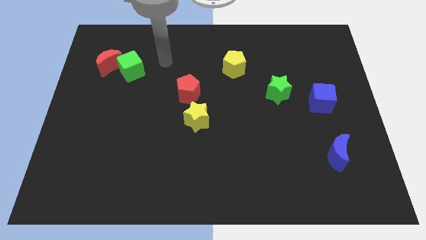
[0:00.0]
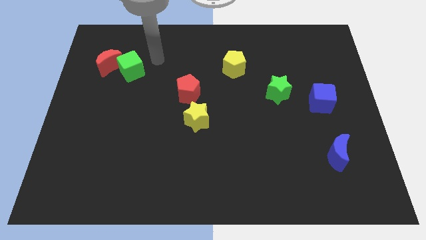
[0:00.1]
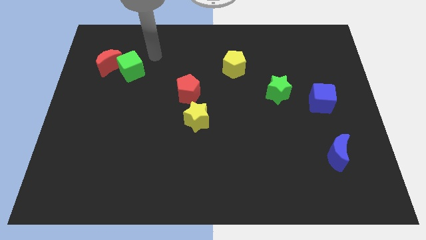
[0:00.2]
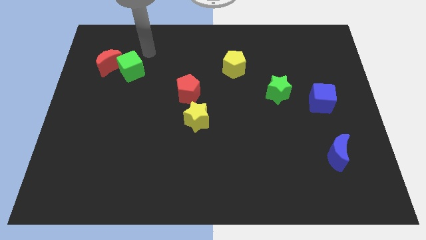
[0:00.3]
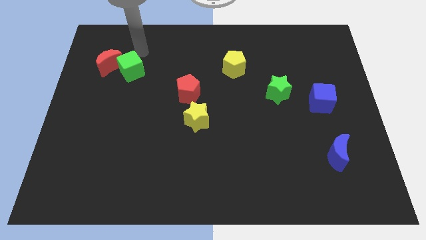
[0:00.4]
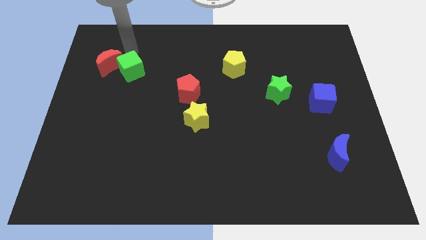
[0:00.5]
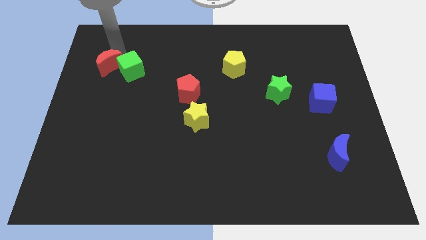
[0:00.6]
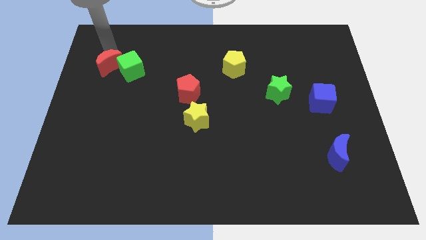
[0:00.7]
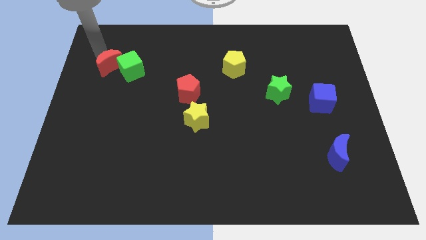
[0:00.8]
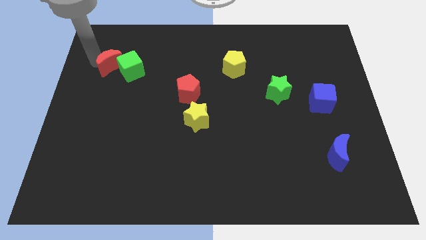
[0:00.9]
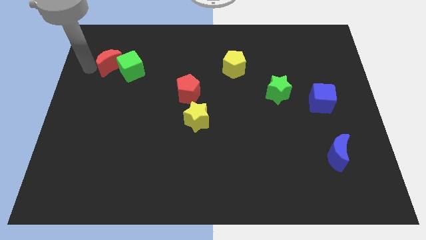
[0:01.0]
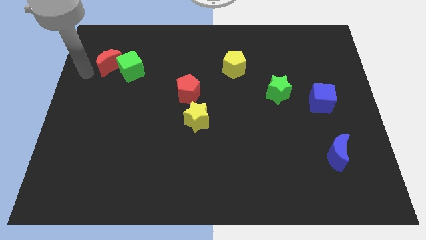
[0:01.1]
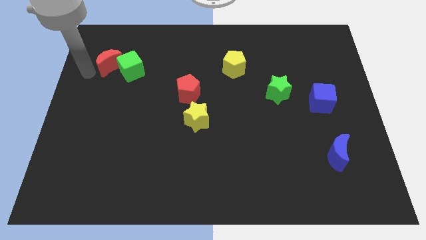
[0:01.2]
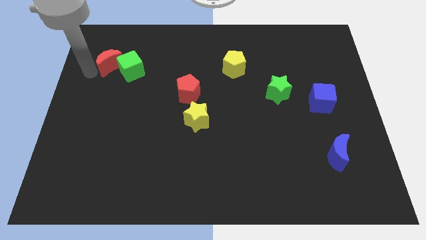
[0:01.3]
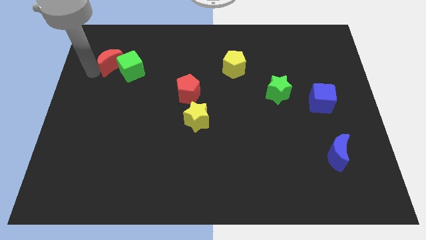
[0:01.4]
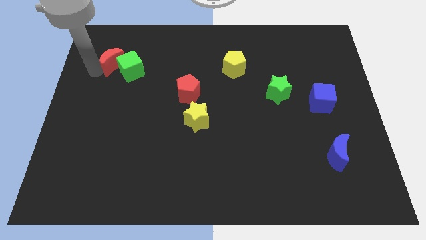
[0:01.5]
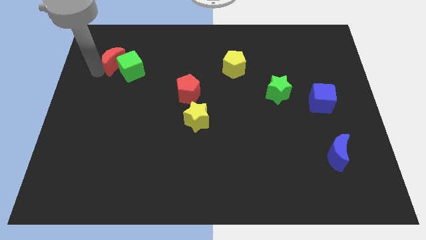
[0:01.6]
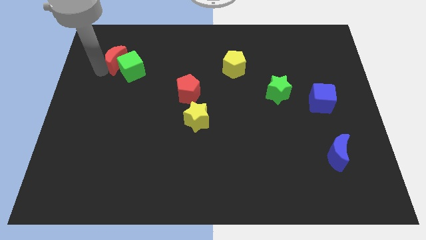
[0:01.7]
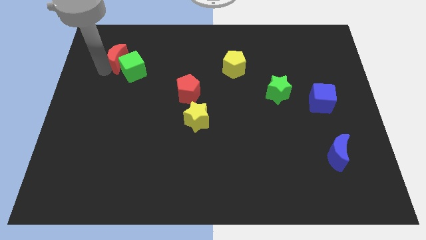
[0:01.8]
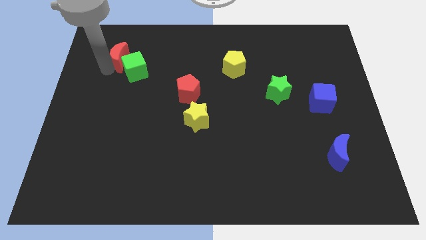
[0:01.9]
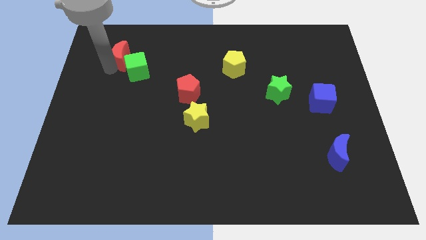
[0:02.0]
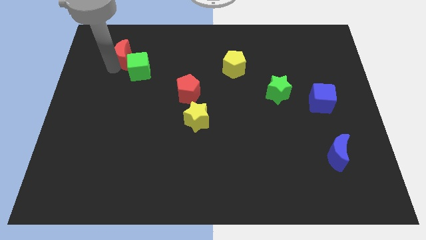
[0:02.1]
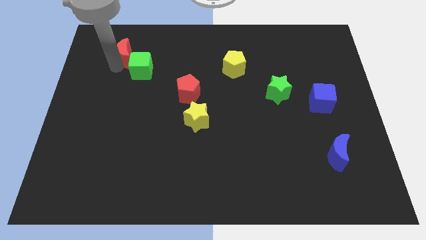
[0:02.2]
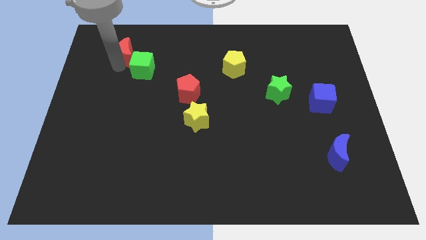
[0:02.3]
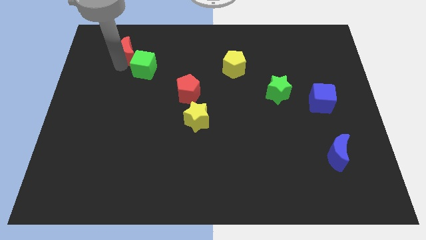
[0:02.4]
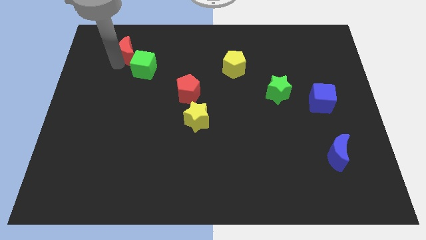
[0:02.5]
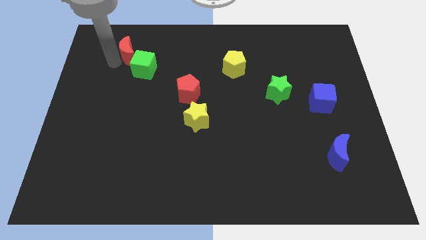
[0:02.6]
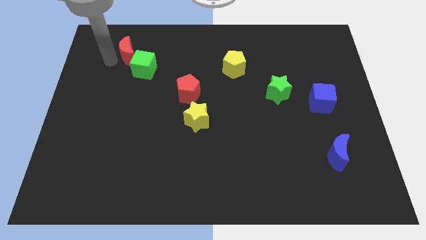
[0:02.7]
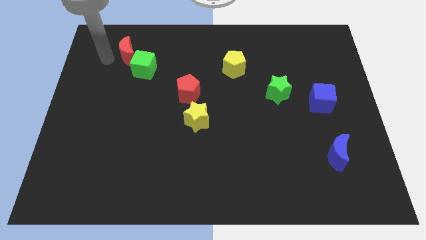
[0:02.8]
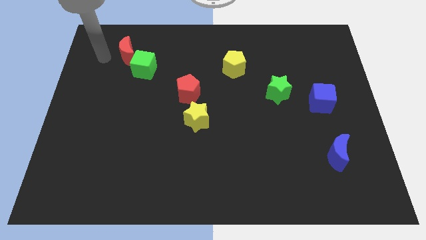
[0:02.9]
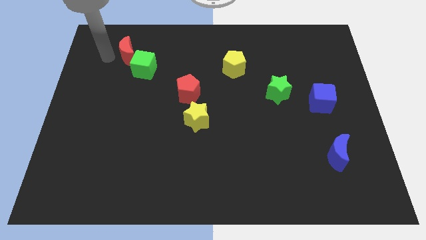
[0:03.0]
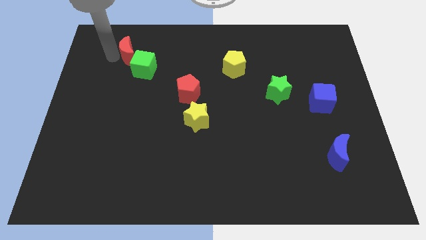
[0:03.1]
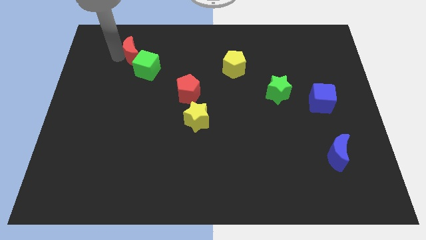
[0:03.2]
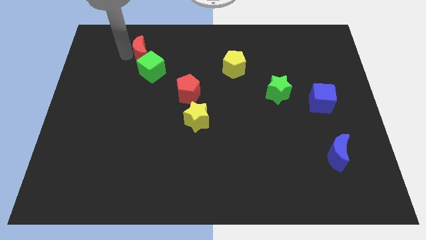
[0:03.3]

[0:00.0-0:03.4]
push the red moon right a little

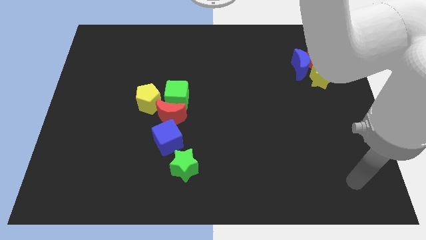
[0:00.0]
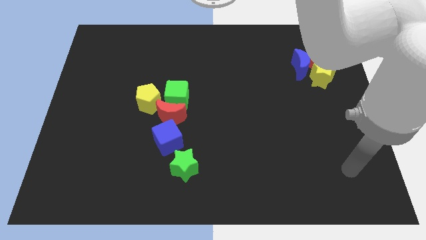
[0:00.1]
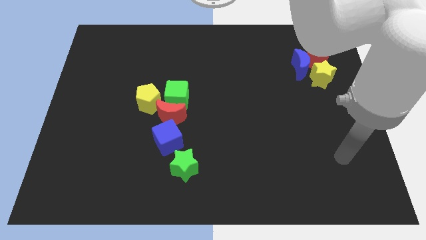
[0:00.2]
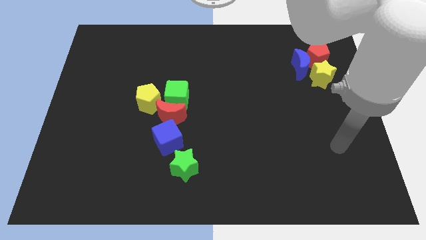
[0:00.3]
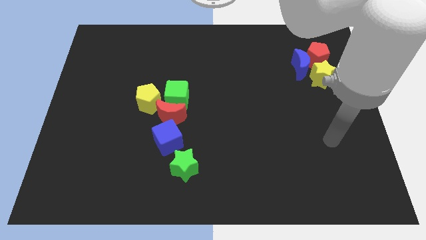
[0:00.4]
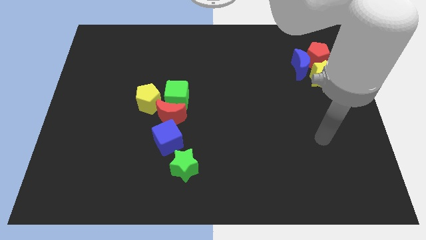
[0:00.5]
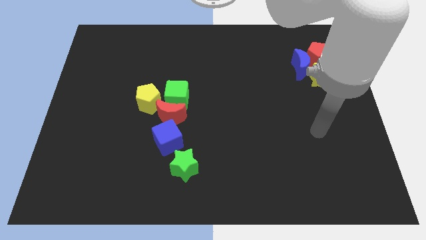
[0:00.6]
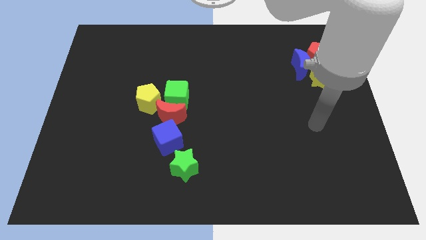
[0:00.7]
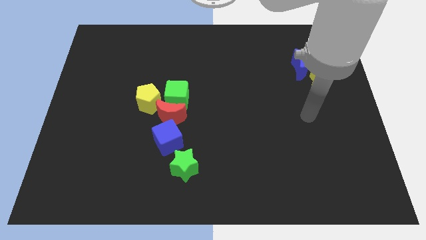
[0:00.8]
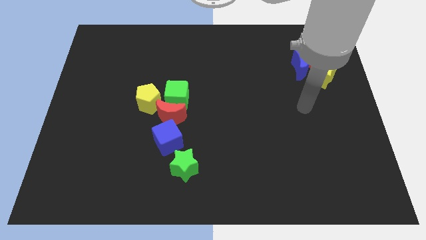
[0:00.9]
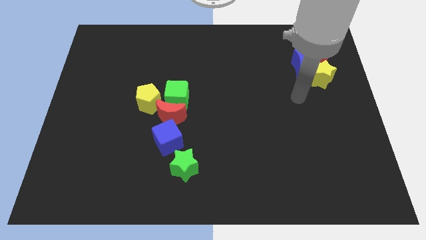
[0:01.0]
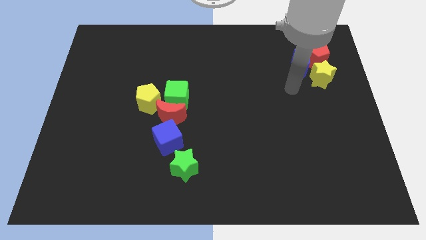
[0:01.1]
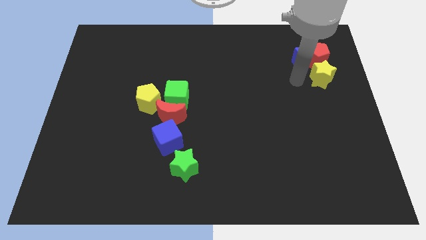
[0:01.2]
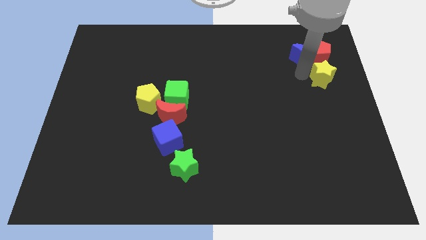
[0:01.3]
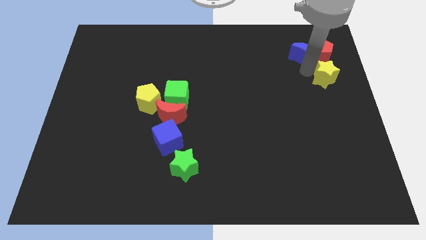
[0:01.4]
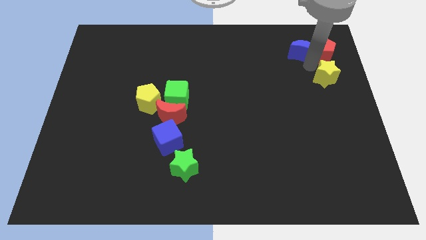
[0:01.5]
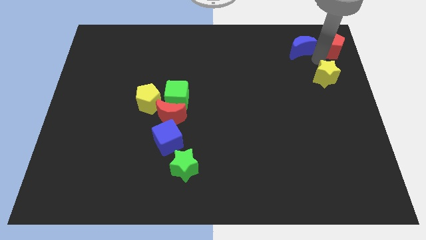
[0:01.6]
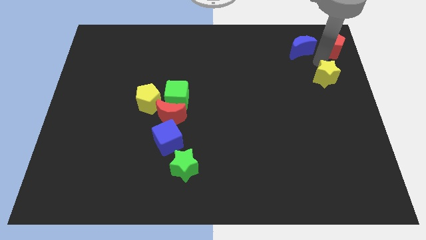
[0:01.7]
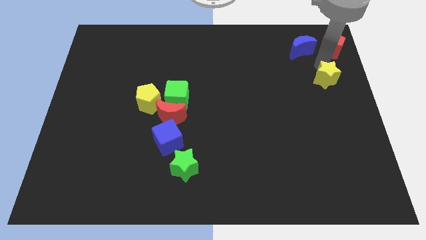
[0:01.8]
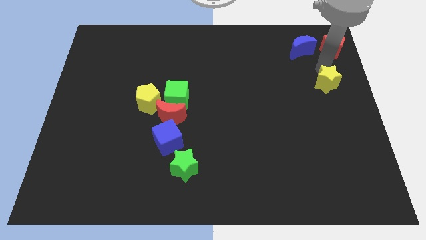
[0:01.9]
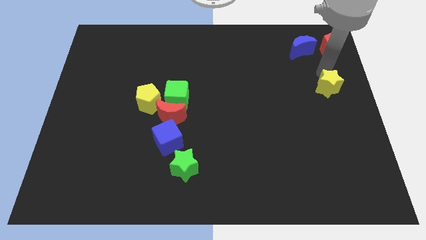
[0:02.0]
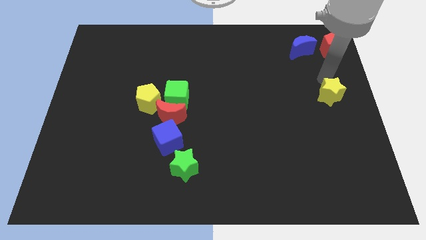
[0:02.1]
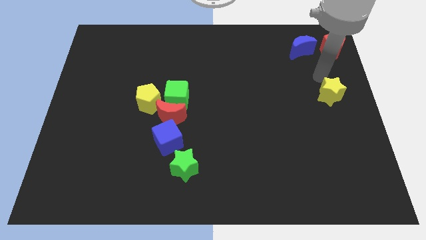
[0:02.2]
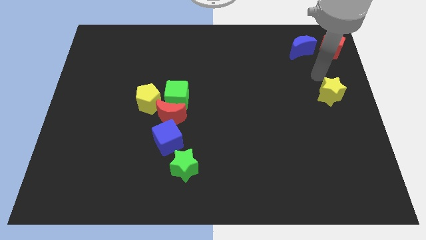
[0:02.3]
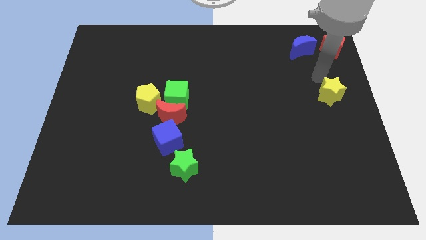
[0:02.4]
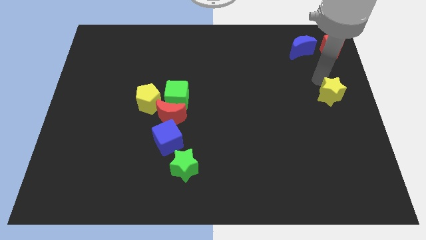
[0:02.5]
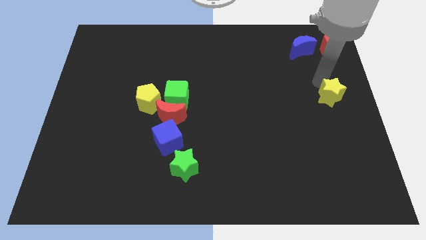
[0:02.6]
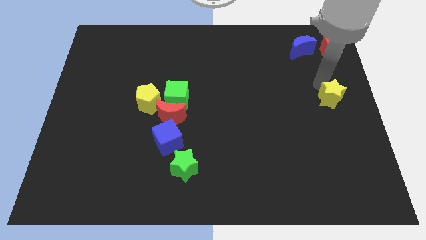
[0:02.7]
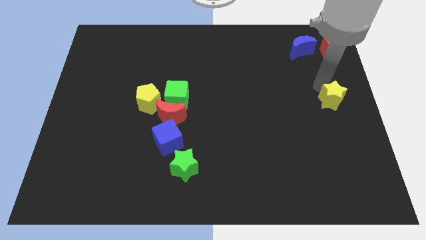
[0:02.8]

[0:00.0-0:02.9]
move the yellow star downwards a little bit

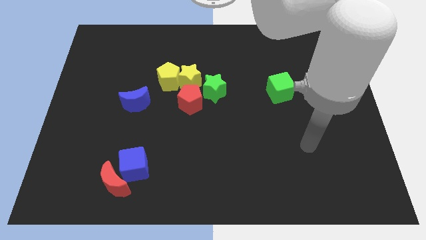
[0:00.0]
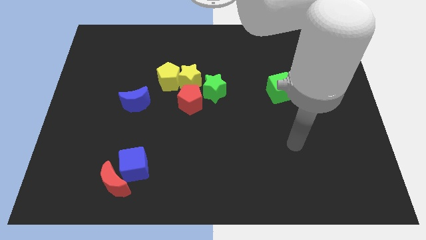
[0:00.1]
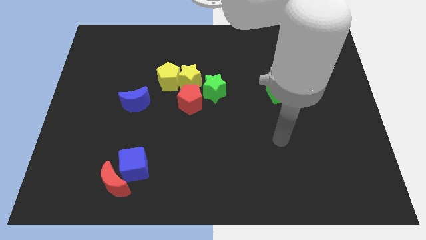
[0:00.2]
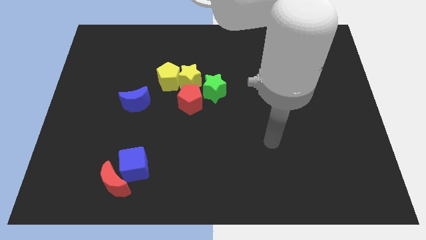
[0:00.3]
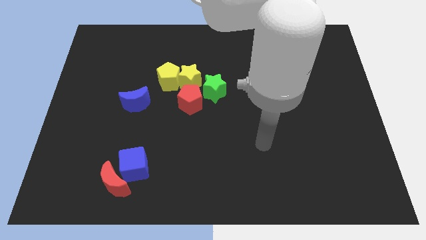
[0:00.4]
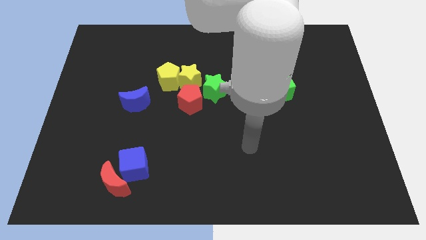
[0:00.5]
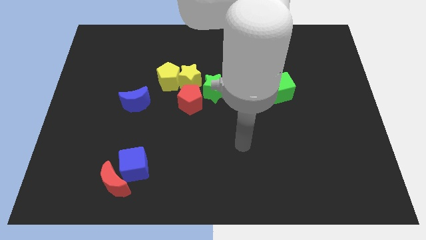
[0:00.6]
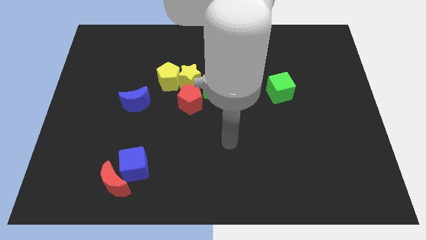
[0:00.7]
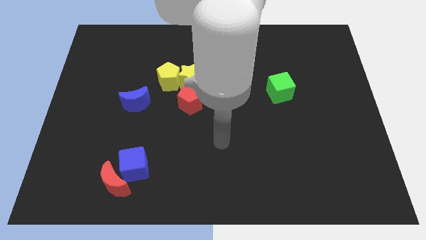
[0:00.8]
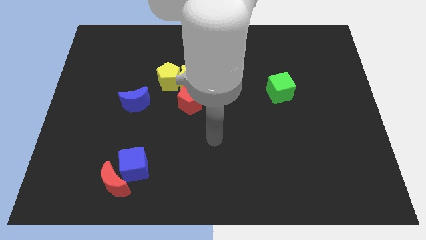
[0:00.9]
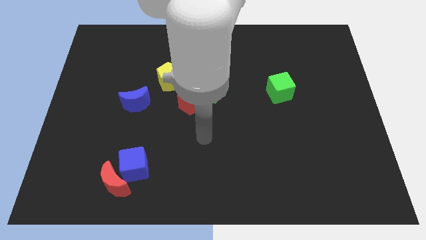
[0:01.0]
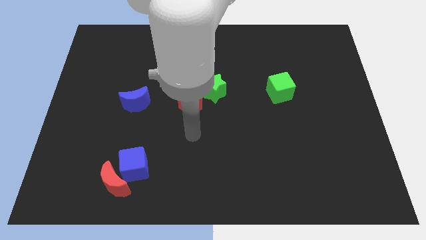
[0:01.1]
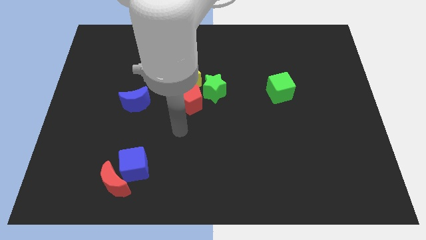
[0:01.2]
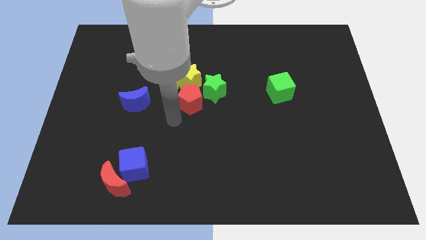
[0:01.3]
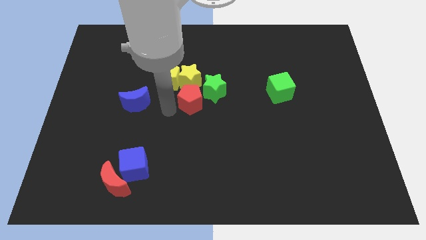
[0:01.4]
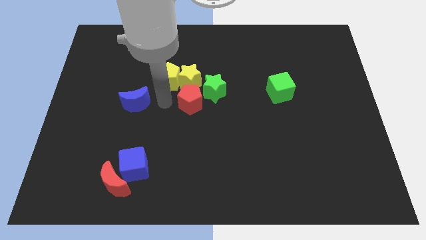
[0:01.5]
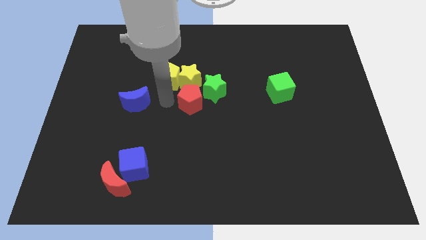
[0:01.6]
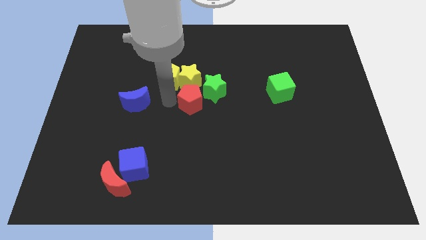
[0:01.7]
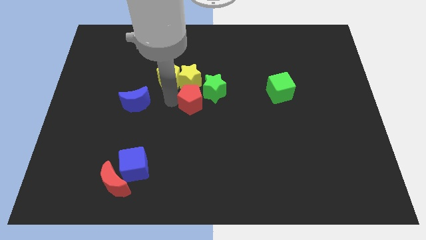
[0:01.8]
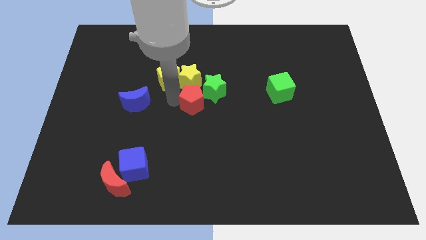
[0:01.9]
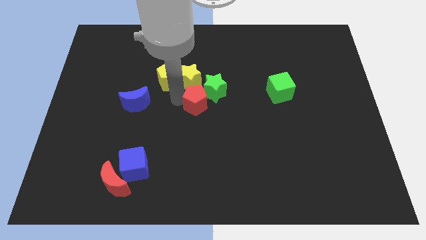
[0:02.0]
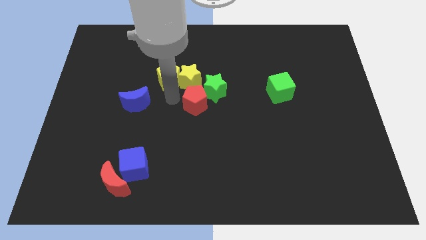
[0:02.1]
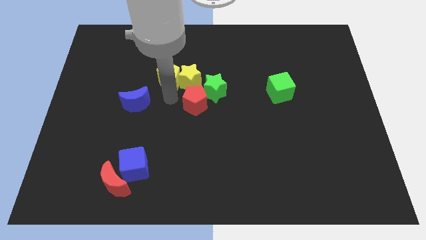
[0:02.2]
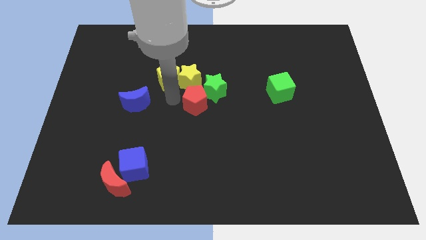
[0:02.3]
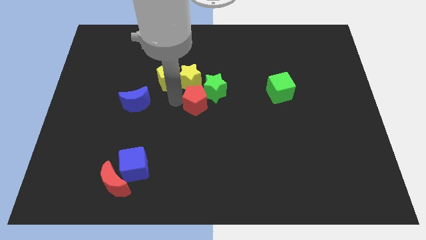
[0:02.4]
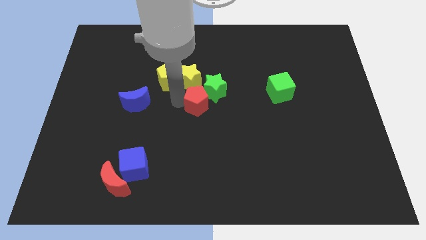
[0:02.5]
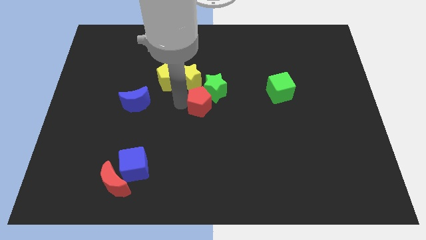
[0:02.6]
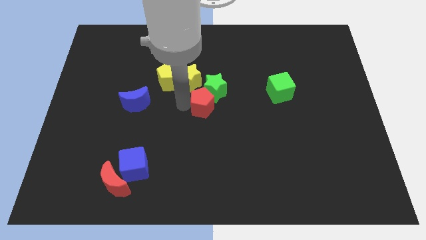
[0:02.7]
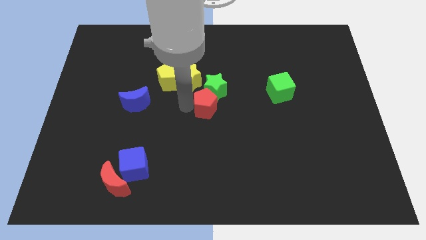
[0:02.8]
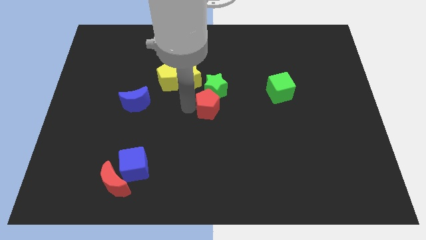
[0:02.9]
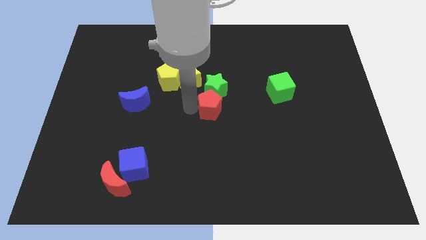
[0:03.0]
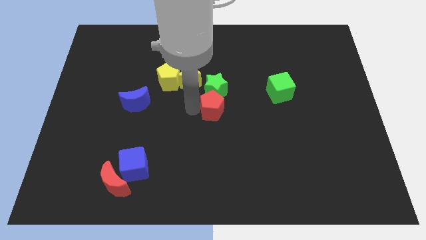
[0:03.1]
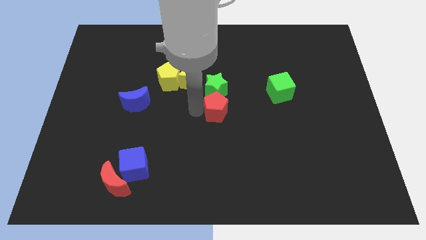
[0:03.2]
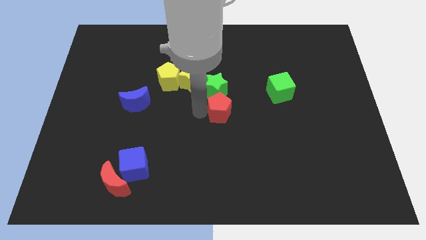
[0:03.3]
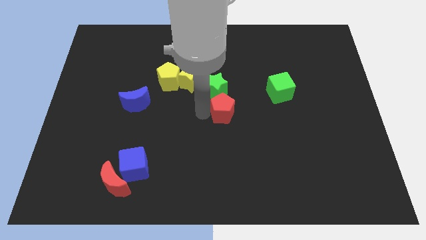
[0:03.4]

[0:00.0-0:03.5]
slide the red pentagon to the right a bit
